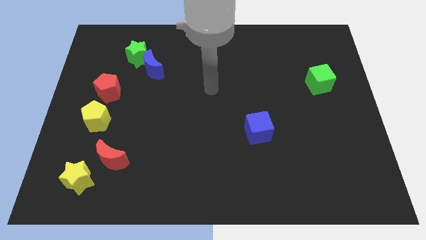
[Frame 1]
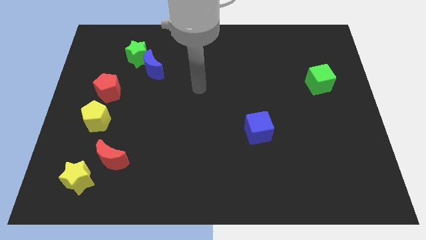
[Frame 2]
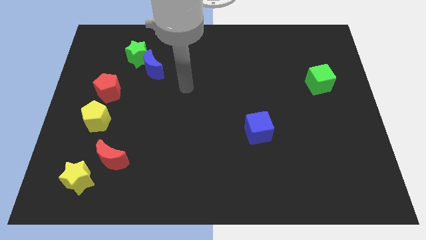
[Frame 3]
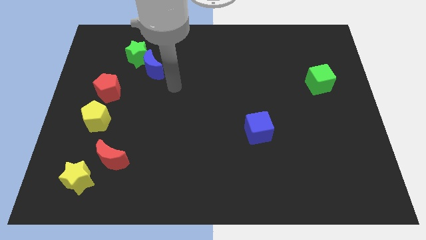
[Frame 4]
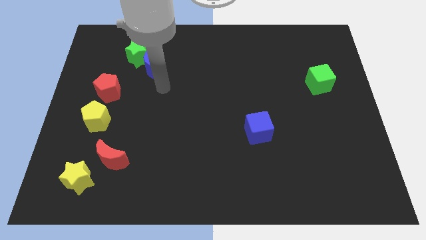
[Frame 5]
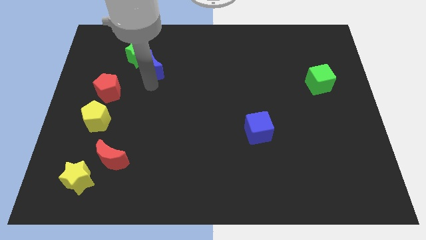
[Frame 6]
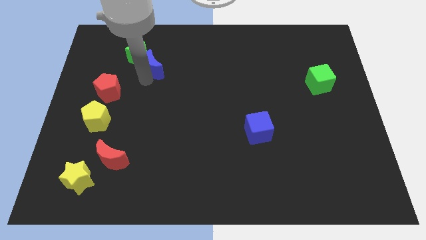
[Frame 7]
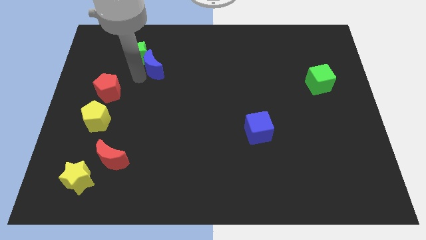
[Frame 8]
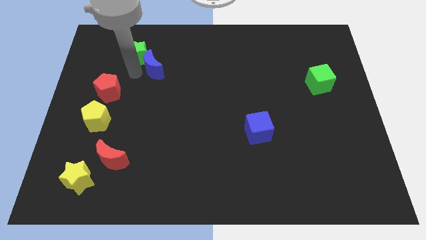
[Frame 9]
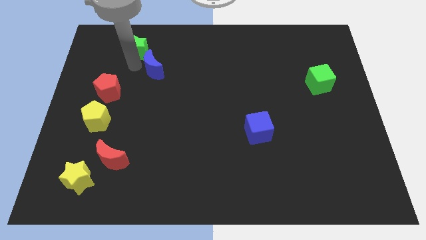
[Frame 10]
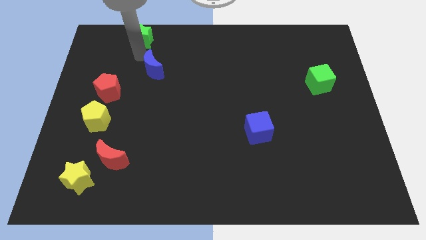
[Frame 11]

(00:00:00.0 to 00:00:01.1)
pull the blue moon apart from the green star

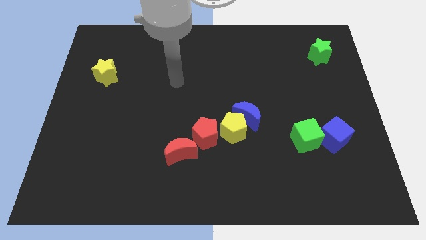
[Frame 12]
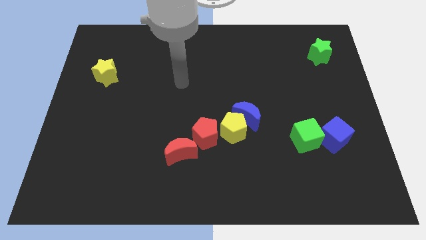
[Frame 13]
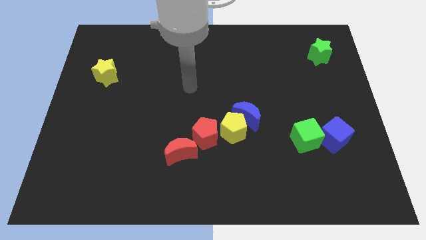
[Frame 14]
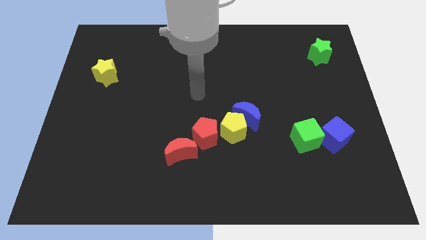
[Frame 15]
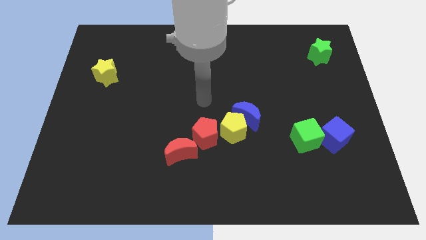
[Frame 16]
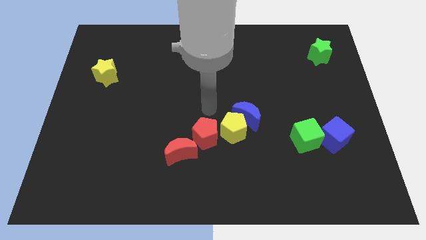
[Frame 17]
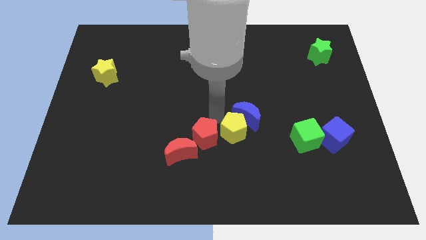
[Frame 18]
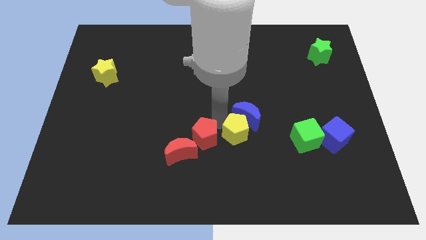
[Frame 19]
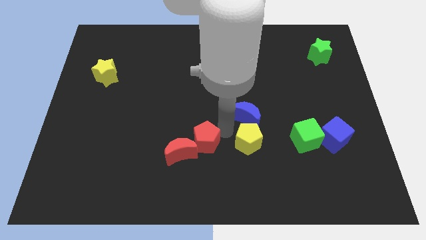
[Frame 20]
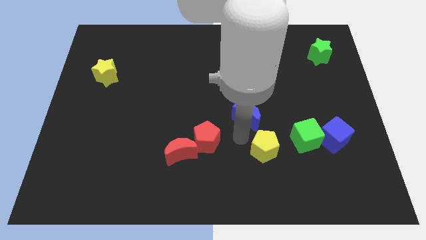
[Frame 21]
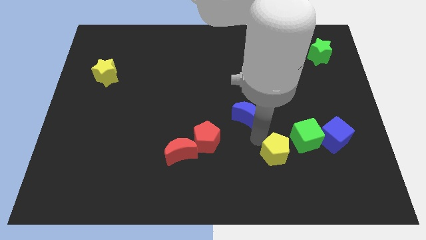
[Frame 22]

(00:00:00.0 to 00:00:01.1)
move the blue moon away from the yellow pentagon

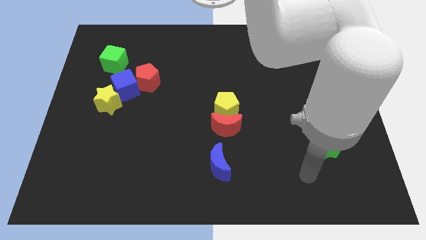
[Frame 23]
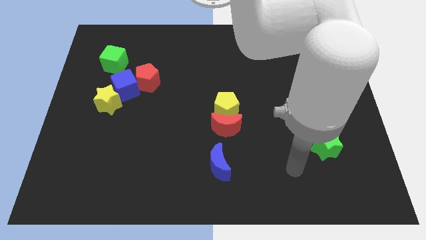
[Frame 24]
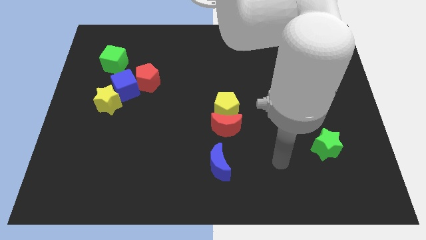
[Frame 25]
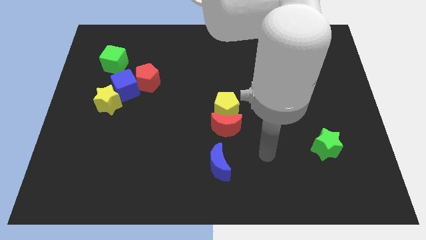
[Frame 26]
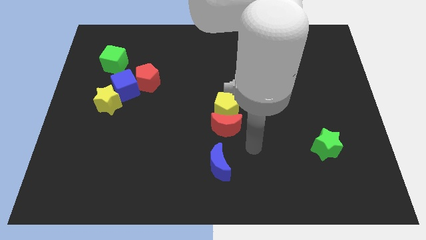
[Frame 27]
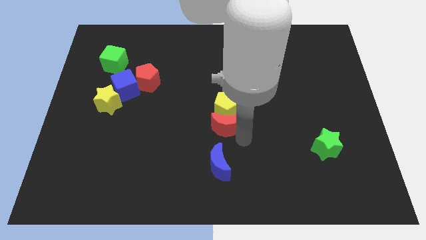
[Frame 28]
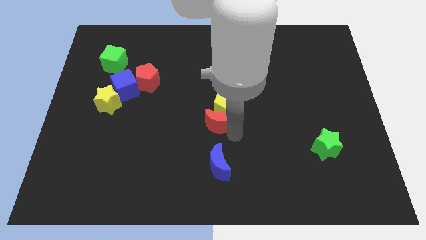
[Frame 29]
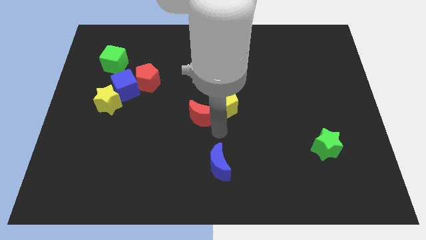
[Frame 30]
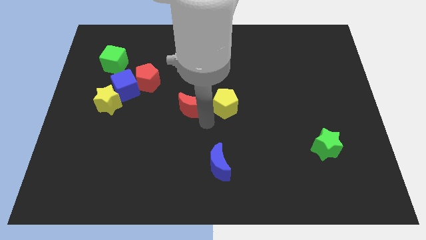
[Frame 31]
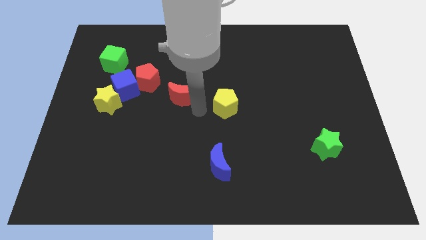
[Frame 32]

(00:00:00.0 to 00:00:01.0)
separate the yellow pentagon from the red moon

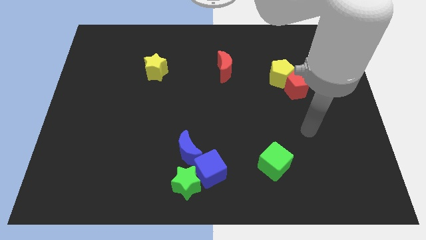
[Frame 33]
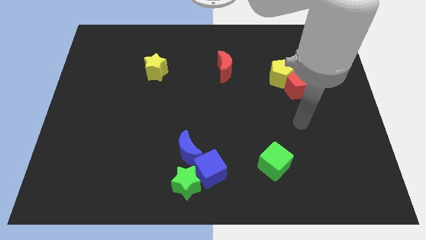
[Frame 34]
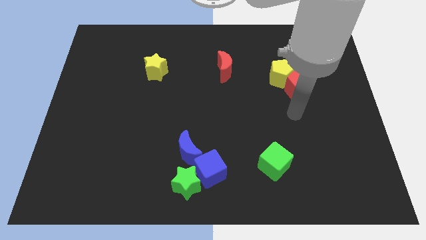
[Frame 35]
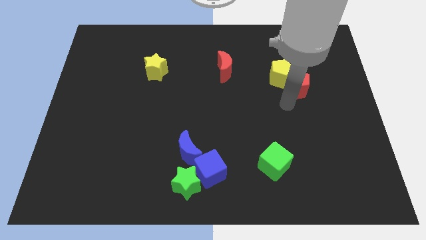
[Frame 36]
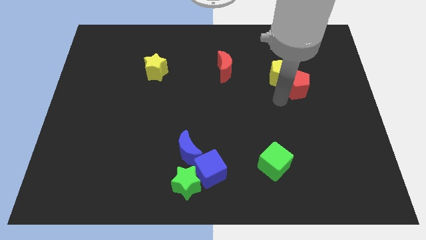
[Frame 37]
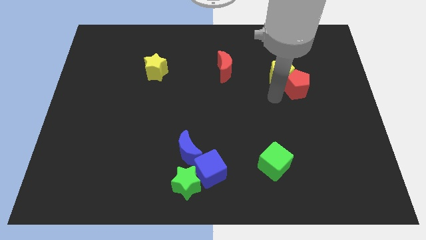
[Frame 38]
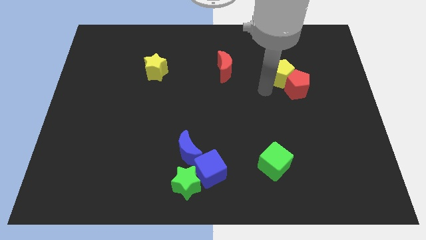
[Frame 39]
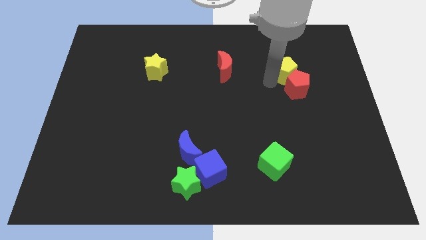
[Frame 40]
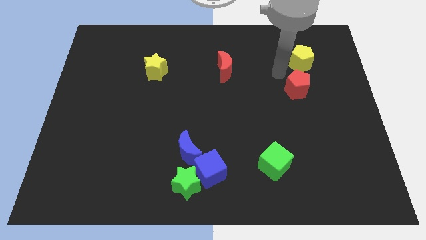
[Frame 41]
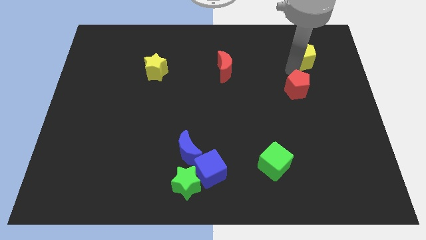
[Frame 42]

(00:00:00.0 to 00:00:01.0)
separate the red pentagon from the yellow pentagon

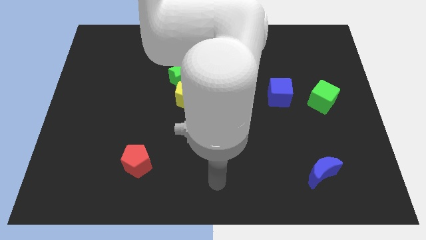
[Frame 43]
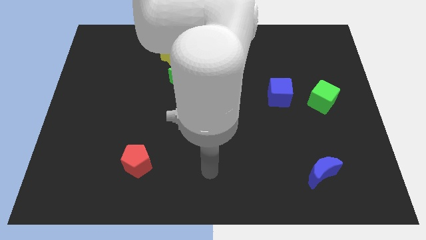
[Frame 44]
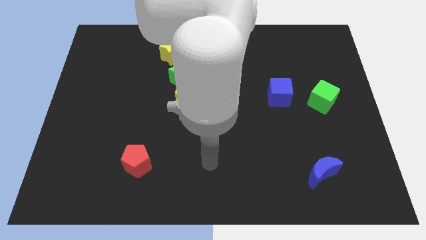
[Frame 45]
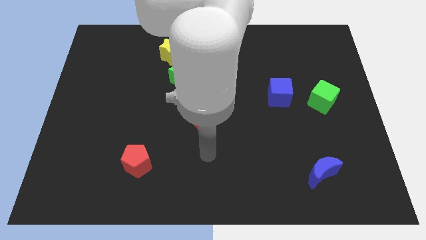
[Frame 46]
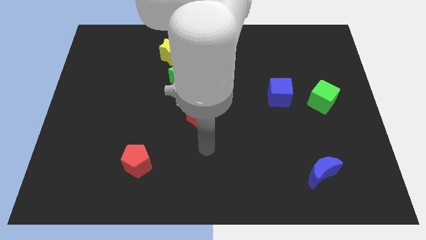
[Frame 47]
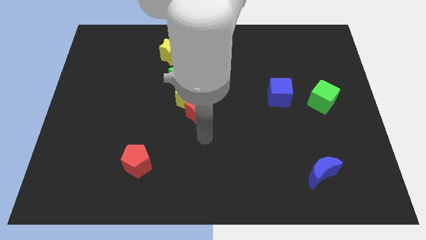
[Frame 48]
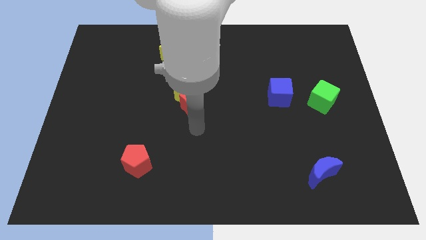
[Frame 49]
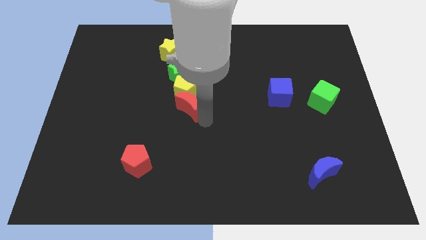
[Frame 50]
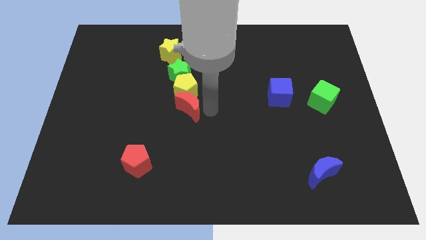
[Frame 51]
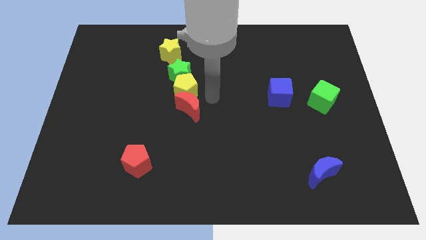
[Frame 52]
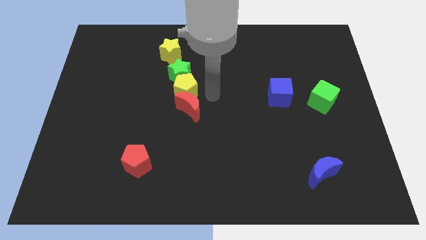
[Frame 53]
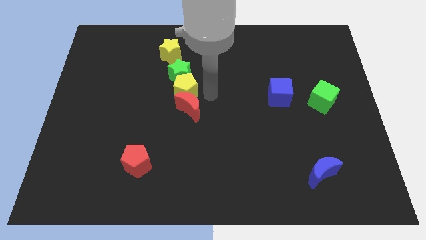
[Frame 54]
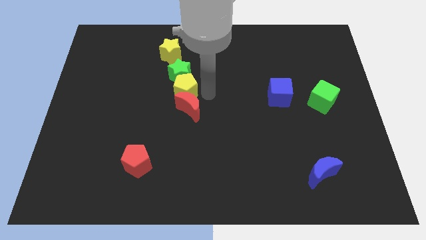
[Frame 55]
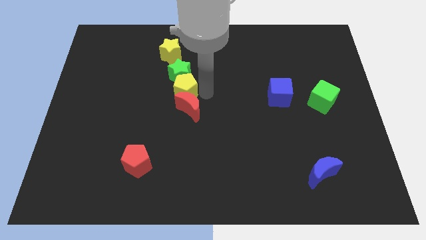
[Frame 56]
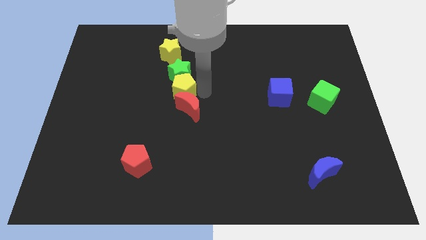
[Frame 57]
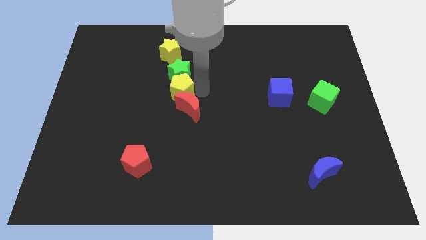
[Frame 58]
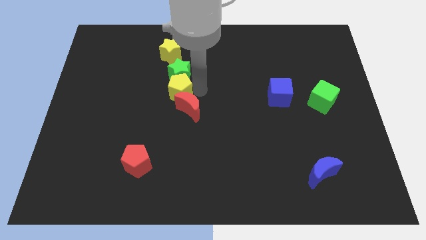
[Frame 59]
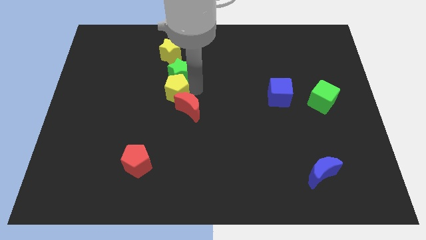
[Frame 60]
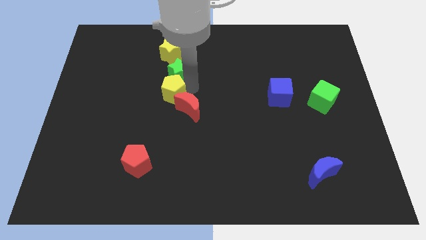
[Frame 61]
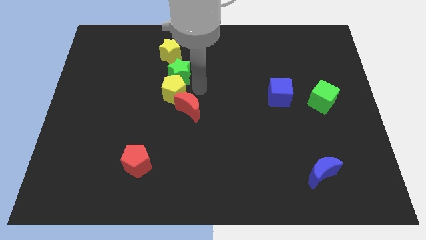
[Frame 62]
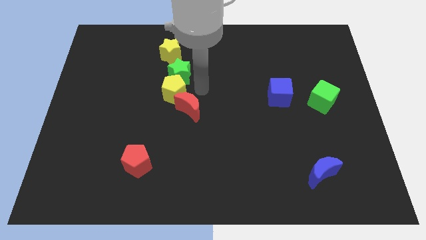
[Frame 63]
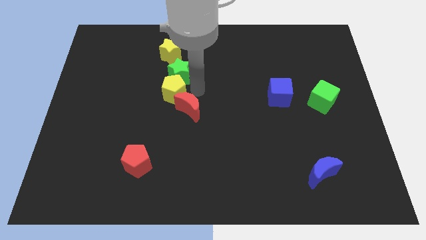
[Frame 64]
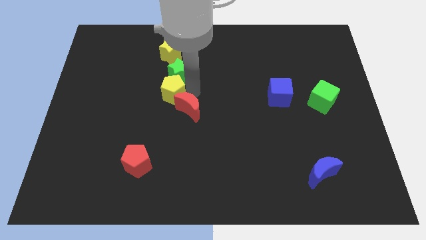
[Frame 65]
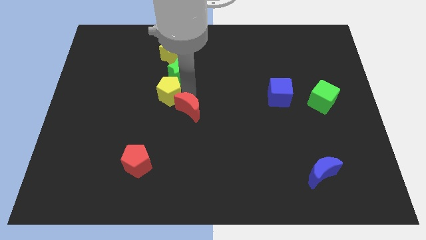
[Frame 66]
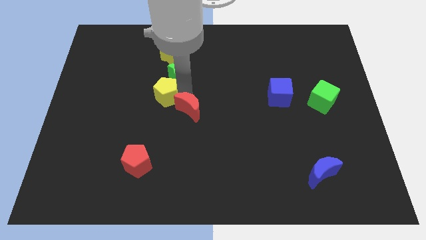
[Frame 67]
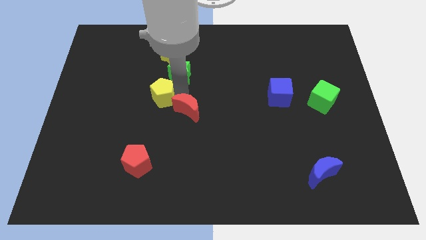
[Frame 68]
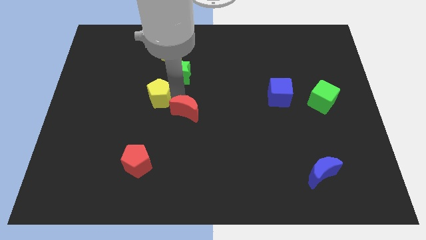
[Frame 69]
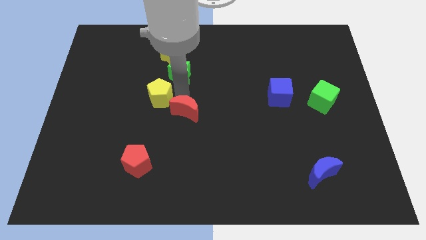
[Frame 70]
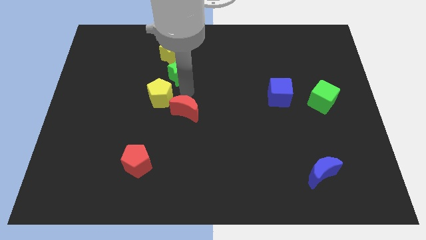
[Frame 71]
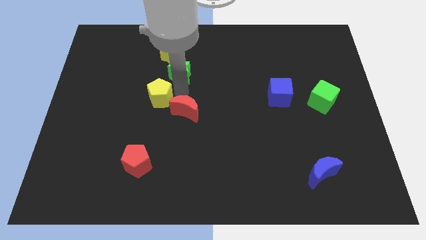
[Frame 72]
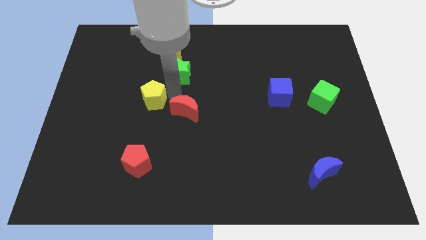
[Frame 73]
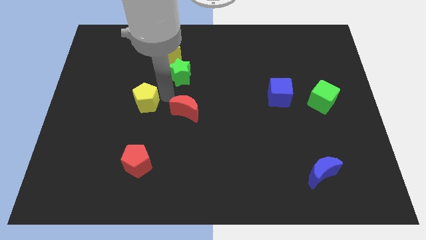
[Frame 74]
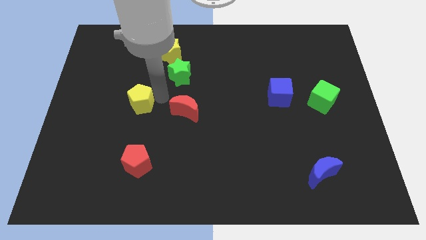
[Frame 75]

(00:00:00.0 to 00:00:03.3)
separate the yellow pentagon from the green star and red moon

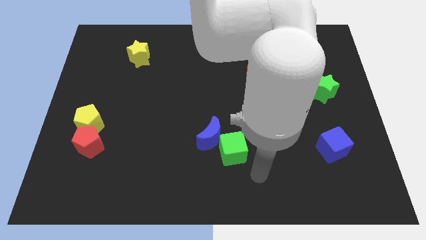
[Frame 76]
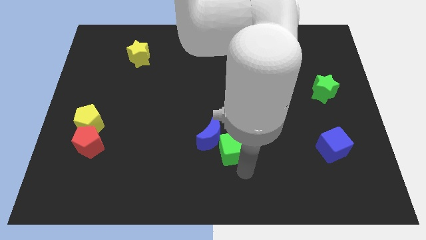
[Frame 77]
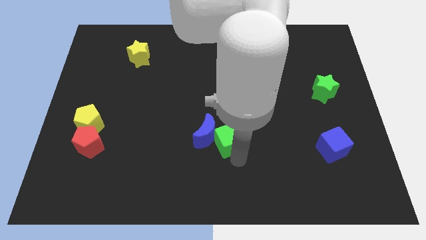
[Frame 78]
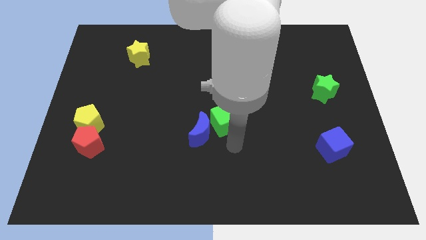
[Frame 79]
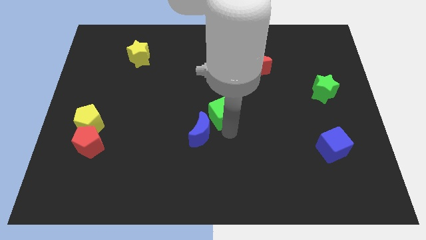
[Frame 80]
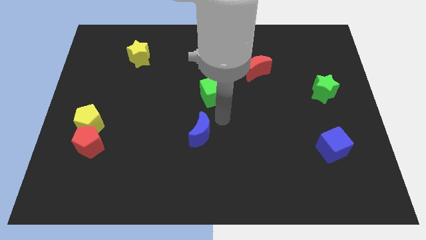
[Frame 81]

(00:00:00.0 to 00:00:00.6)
separate the blue moon from the green cube

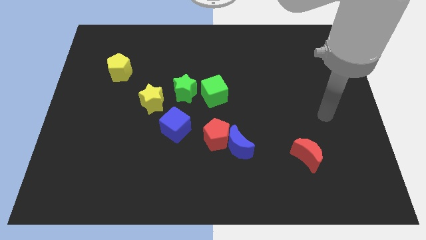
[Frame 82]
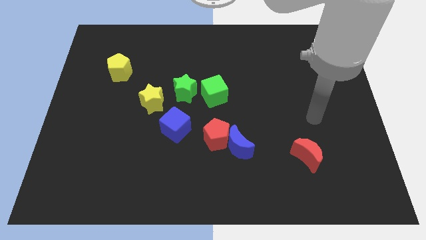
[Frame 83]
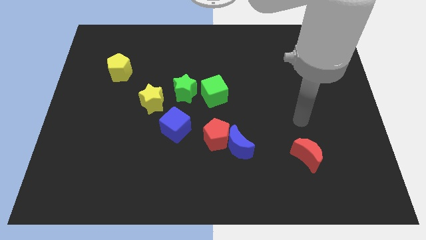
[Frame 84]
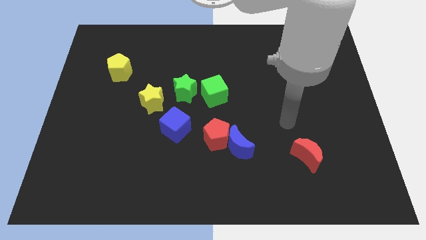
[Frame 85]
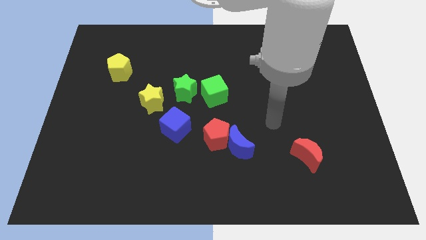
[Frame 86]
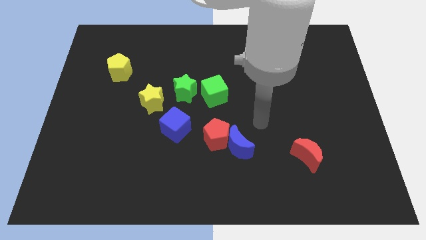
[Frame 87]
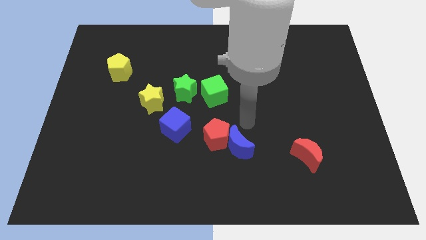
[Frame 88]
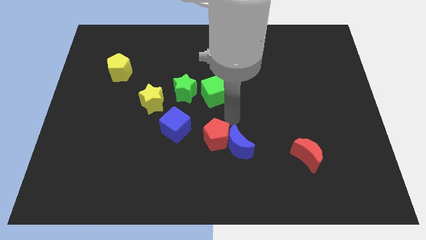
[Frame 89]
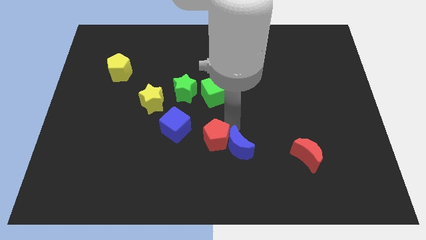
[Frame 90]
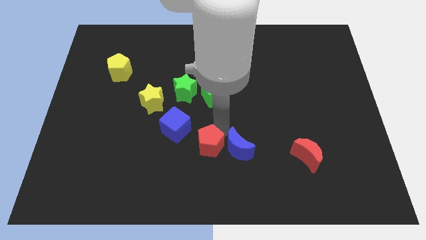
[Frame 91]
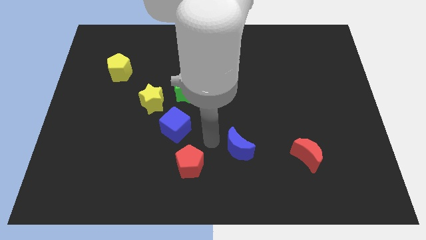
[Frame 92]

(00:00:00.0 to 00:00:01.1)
separate the blue moon from the red pentagon
